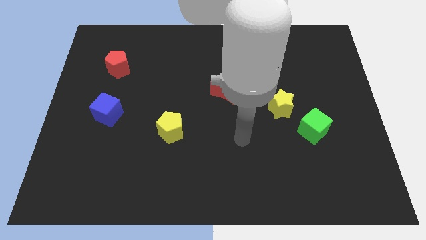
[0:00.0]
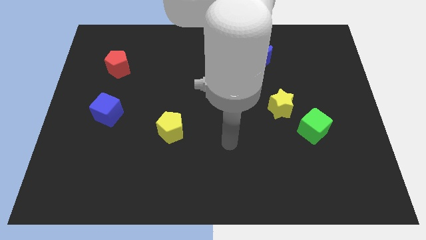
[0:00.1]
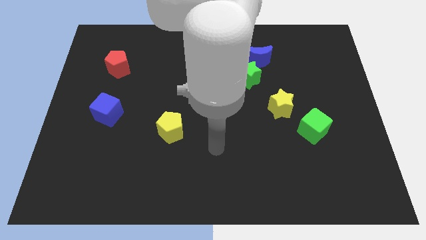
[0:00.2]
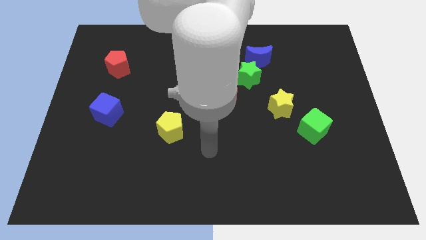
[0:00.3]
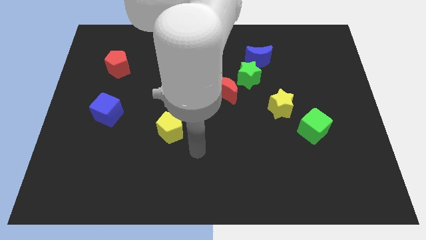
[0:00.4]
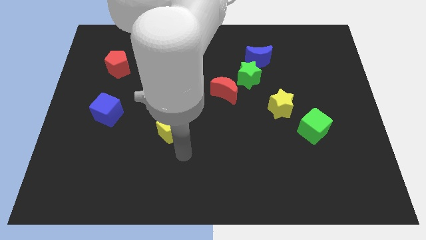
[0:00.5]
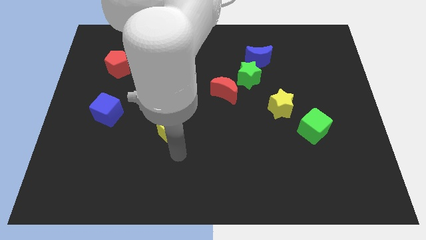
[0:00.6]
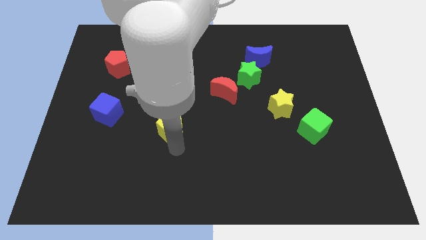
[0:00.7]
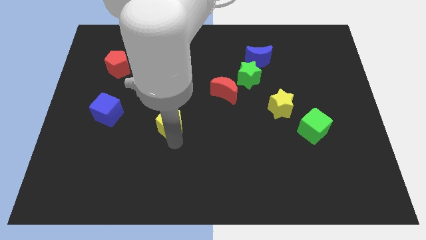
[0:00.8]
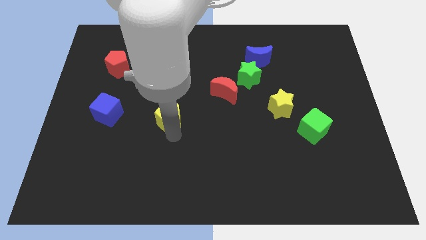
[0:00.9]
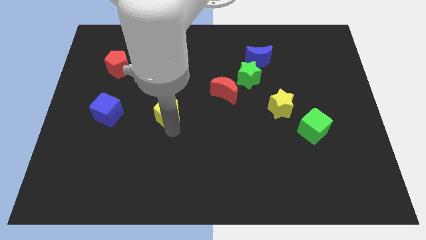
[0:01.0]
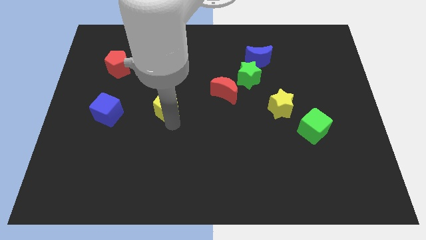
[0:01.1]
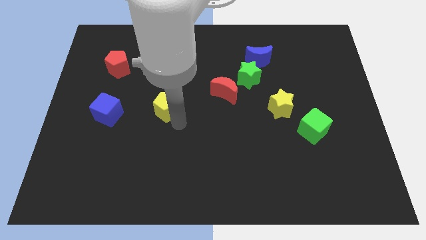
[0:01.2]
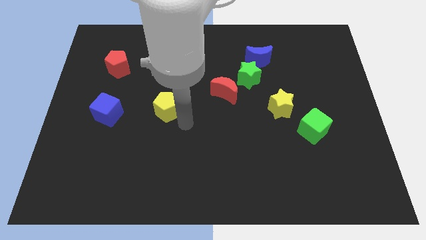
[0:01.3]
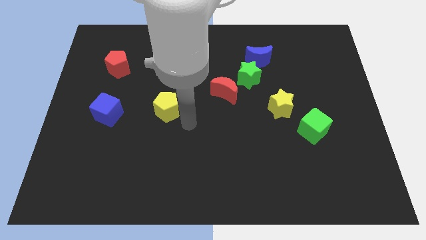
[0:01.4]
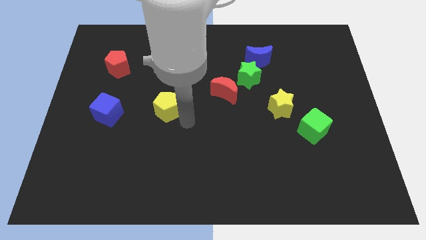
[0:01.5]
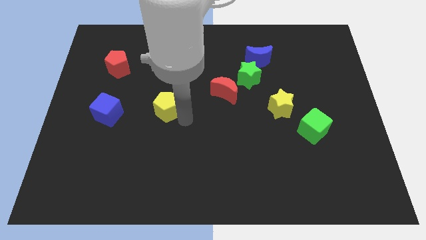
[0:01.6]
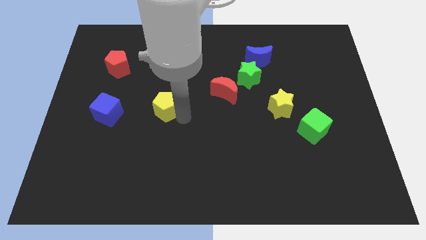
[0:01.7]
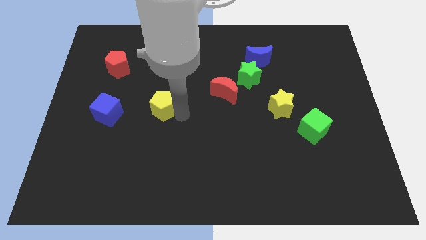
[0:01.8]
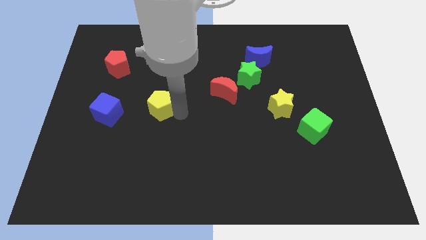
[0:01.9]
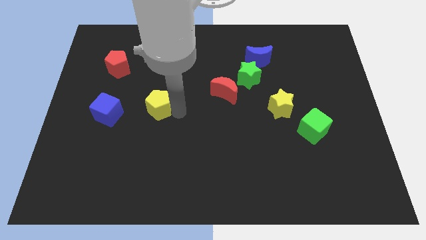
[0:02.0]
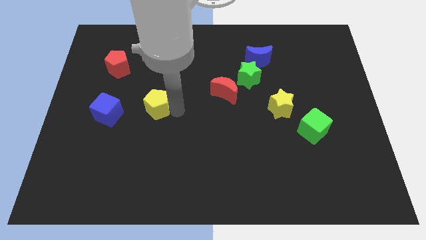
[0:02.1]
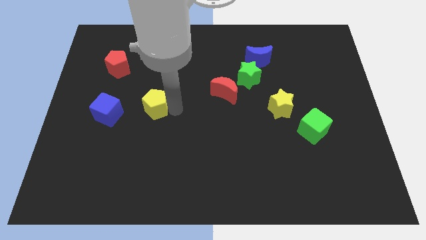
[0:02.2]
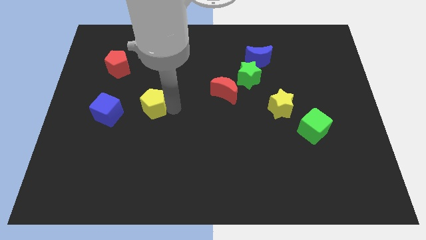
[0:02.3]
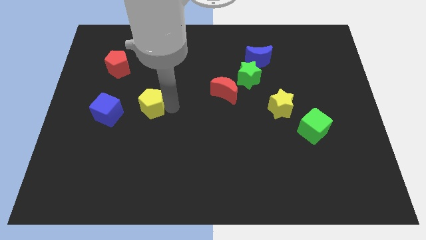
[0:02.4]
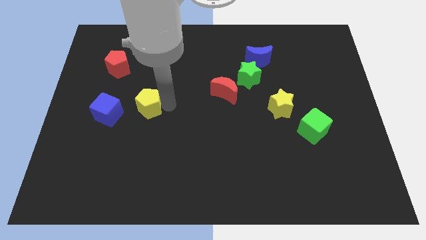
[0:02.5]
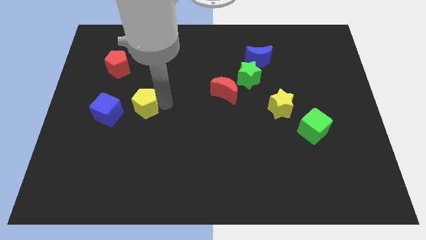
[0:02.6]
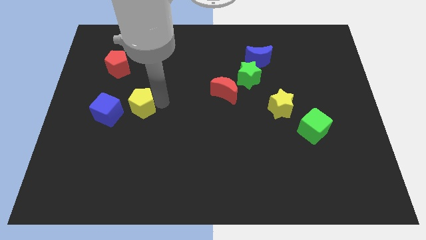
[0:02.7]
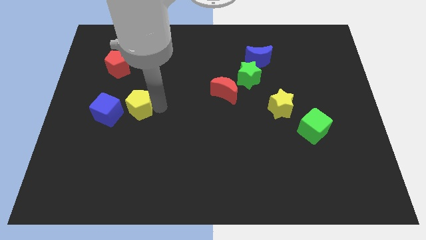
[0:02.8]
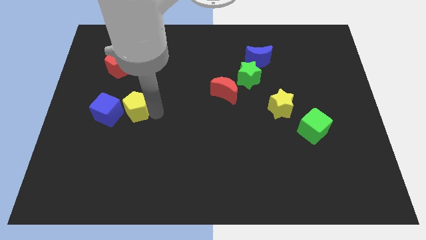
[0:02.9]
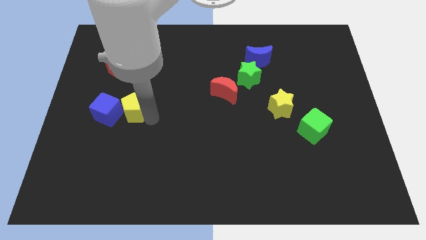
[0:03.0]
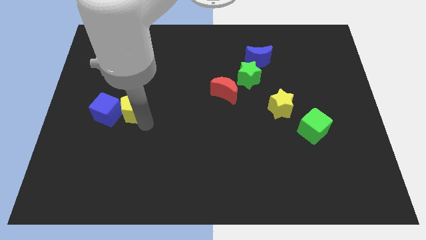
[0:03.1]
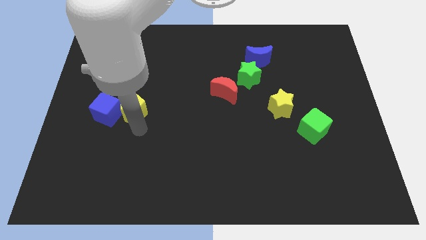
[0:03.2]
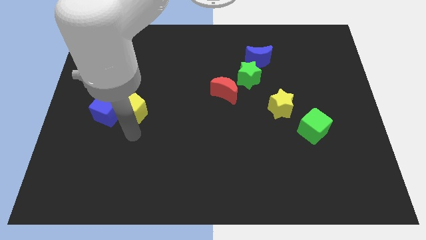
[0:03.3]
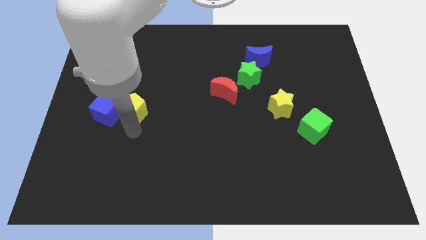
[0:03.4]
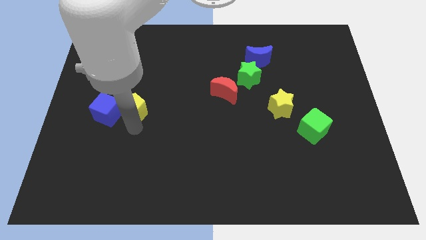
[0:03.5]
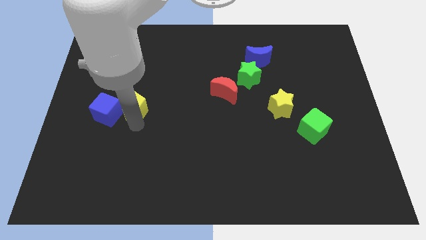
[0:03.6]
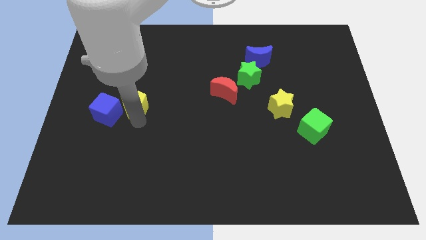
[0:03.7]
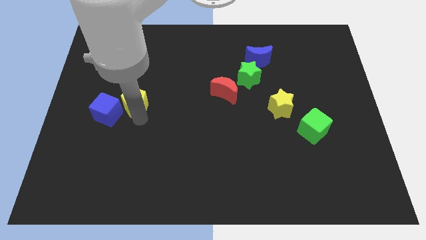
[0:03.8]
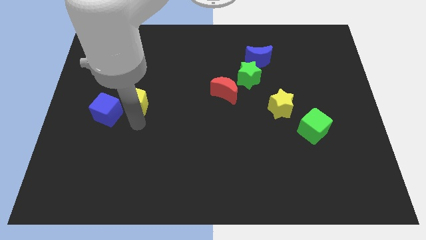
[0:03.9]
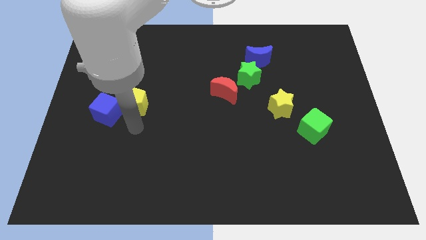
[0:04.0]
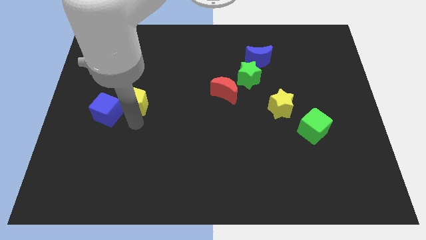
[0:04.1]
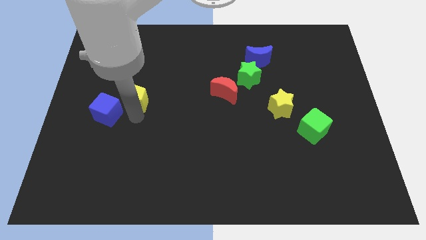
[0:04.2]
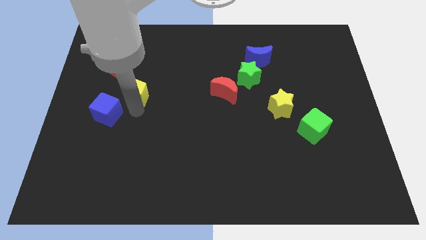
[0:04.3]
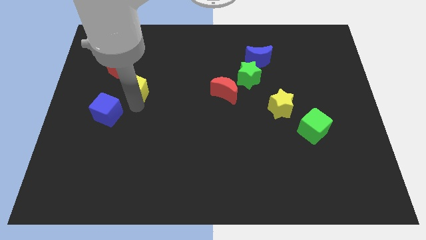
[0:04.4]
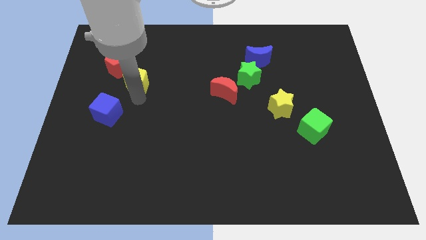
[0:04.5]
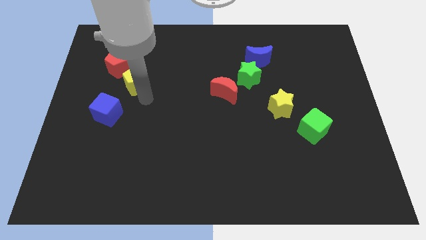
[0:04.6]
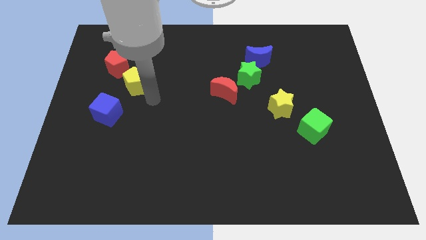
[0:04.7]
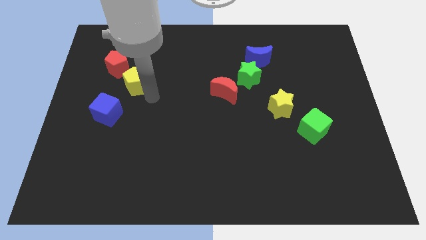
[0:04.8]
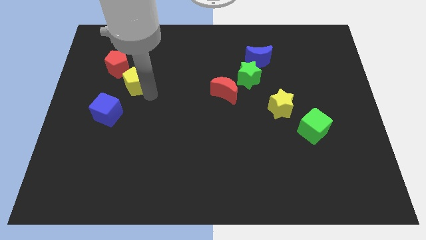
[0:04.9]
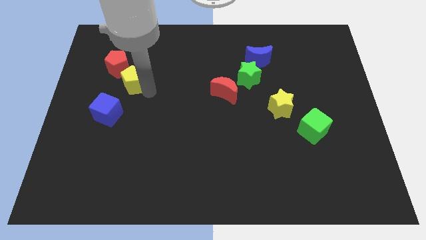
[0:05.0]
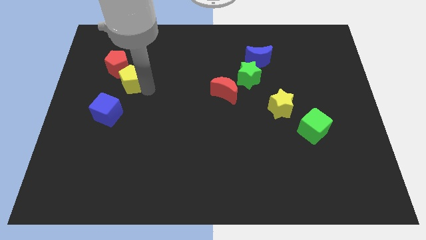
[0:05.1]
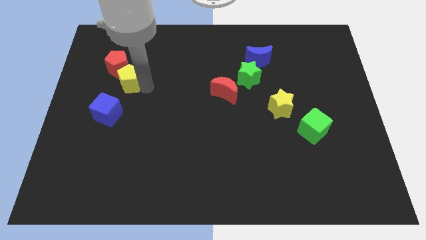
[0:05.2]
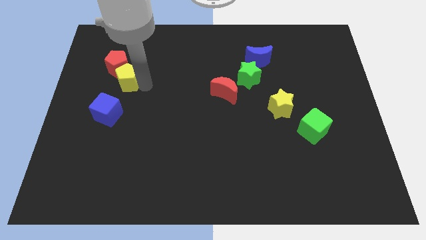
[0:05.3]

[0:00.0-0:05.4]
slide the yellow pentagon to the red pentagon
